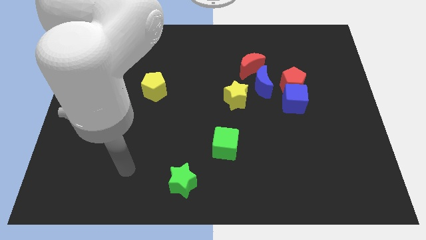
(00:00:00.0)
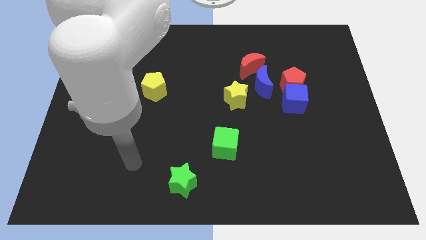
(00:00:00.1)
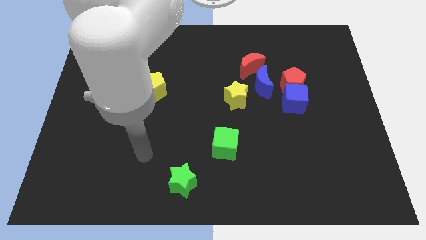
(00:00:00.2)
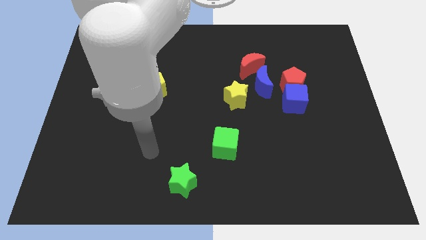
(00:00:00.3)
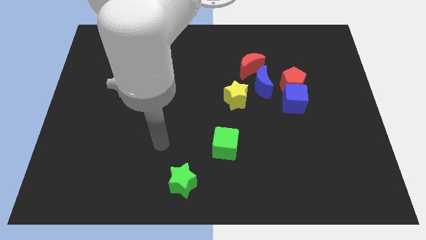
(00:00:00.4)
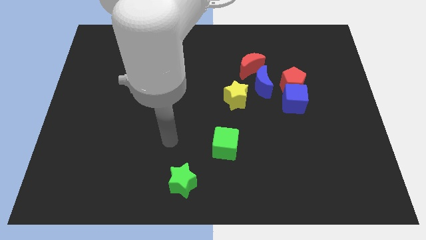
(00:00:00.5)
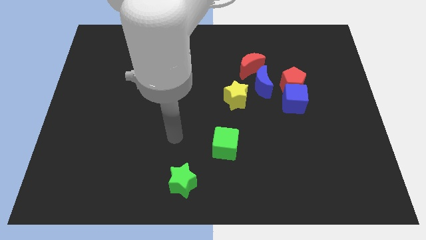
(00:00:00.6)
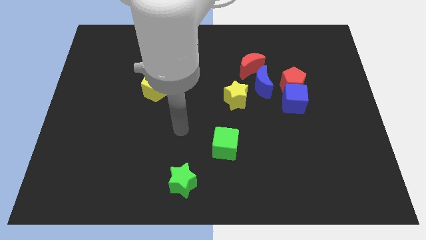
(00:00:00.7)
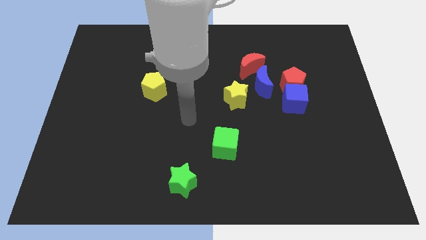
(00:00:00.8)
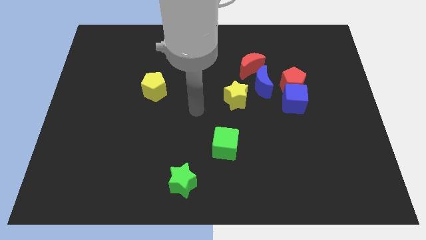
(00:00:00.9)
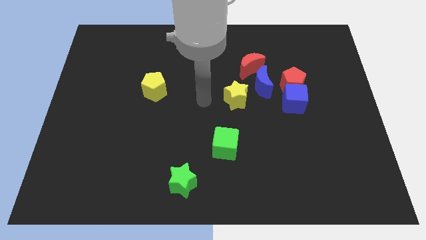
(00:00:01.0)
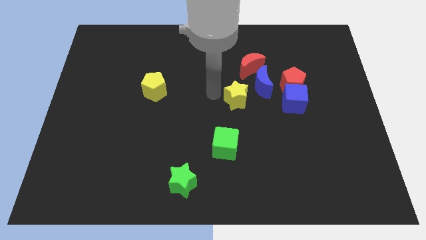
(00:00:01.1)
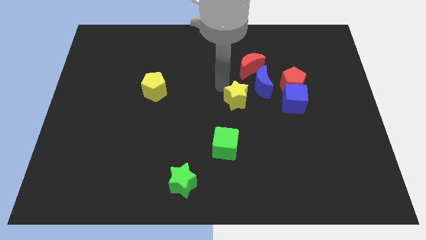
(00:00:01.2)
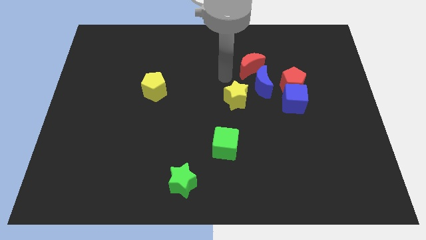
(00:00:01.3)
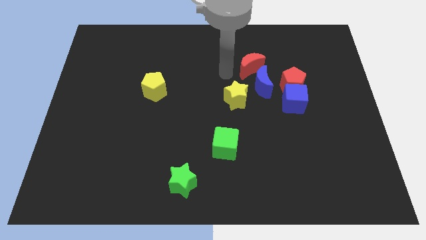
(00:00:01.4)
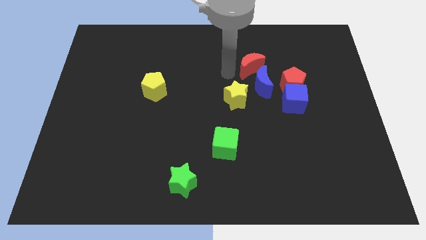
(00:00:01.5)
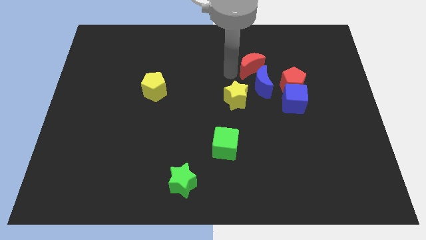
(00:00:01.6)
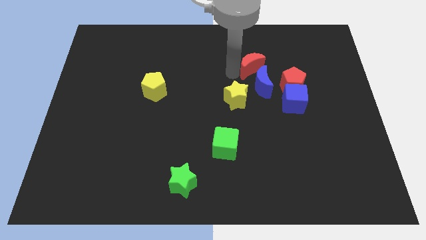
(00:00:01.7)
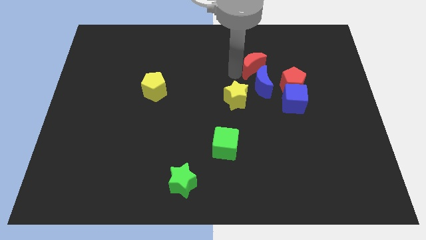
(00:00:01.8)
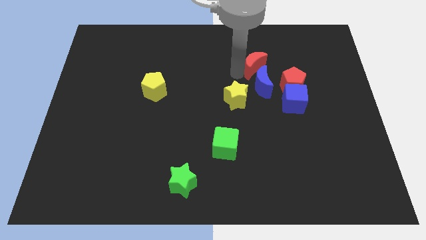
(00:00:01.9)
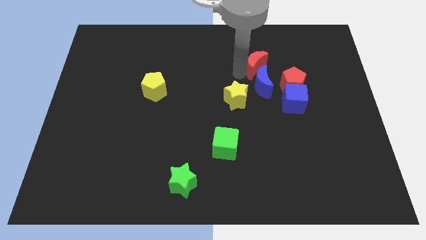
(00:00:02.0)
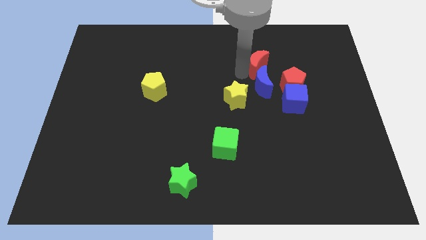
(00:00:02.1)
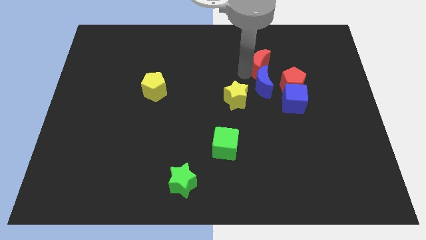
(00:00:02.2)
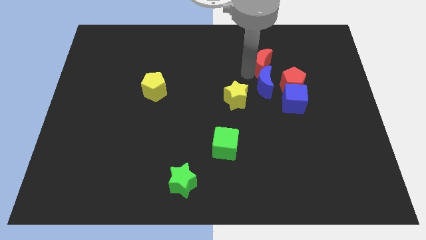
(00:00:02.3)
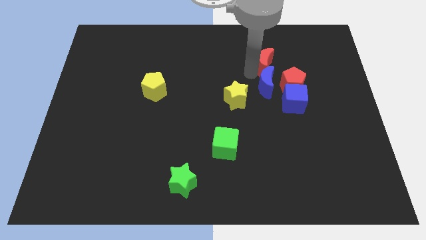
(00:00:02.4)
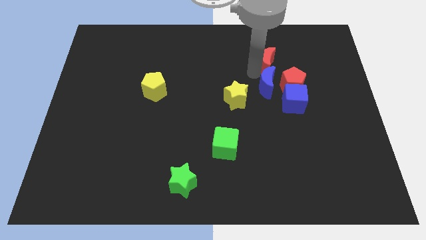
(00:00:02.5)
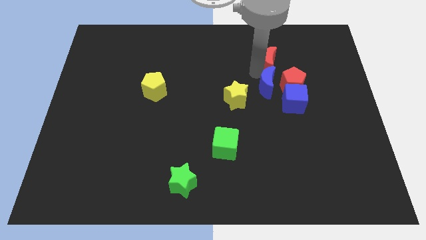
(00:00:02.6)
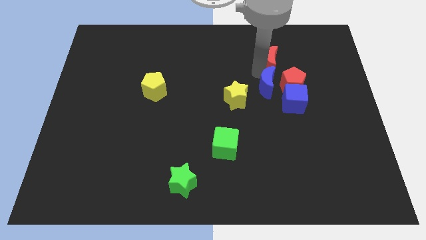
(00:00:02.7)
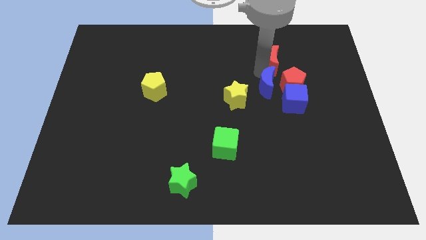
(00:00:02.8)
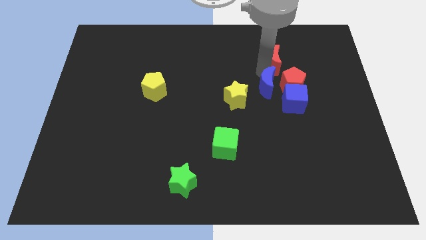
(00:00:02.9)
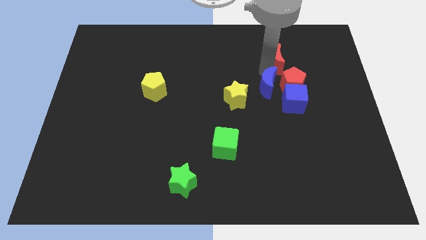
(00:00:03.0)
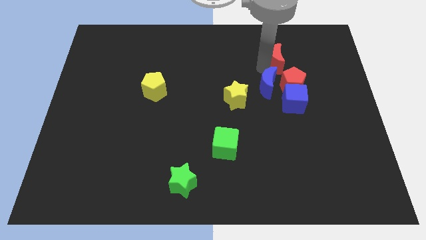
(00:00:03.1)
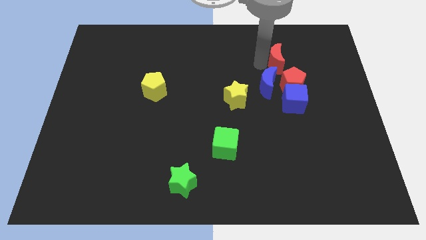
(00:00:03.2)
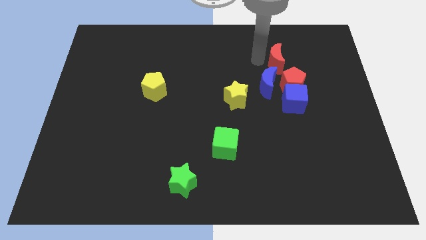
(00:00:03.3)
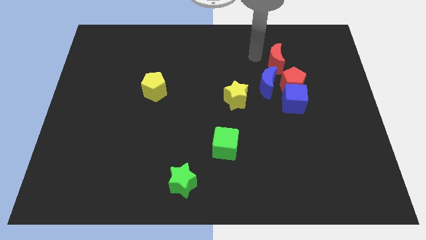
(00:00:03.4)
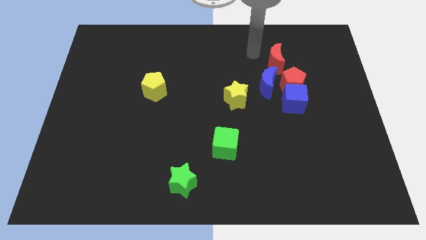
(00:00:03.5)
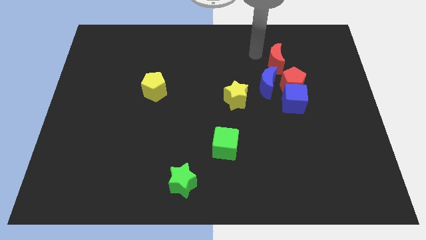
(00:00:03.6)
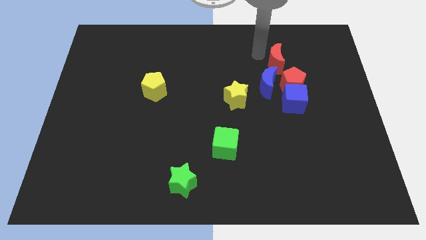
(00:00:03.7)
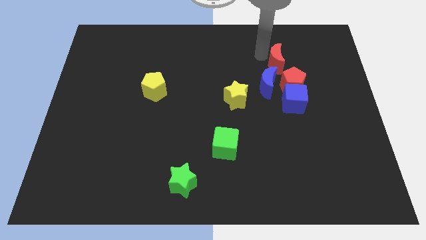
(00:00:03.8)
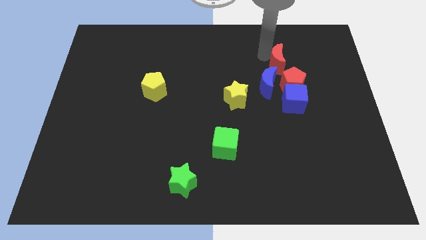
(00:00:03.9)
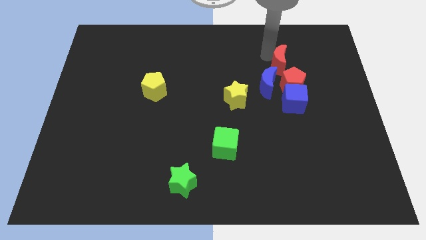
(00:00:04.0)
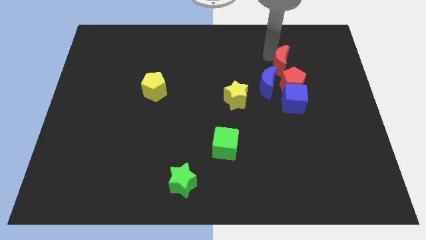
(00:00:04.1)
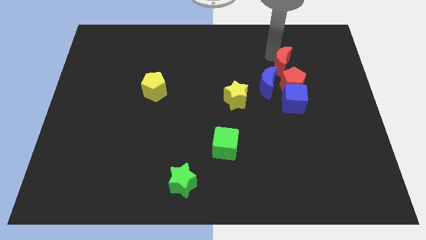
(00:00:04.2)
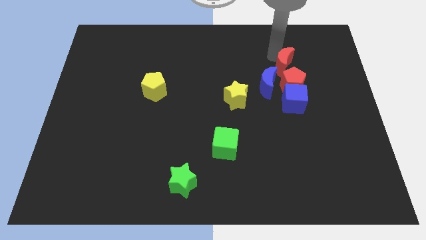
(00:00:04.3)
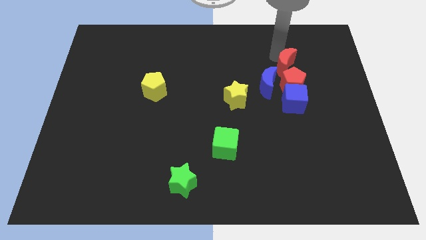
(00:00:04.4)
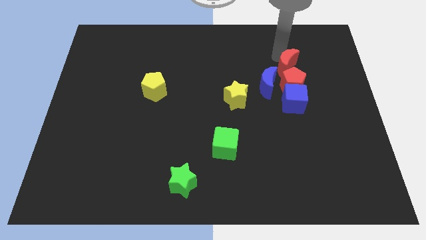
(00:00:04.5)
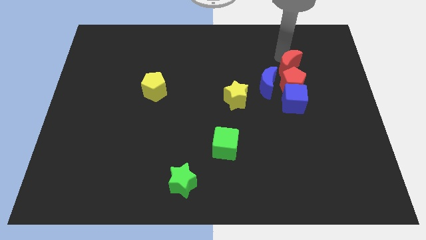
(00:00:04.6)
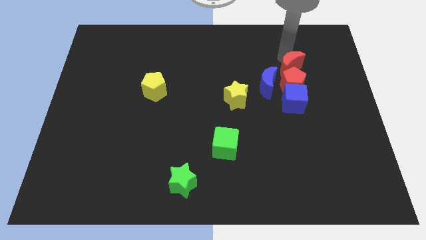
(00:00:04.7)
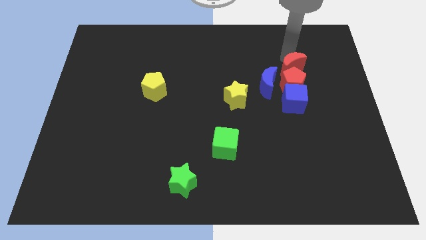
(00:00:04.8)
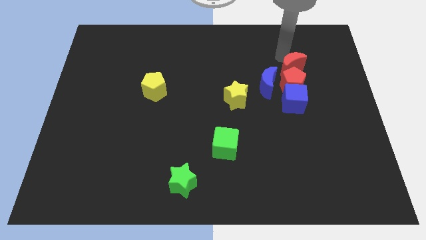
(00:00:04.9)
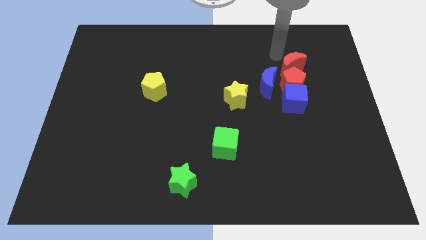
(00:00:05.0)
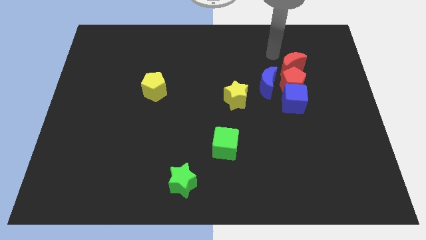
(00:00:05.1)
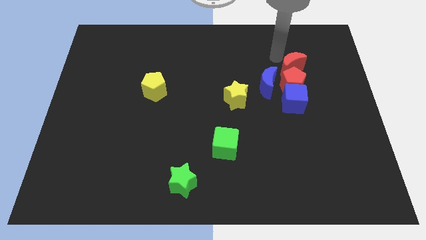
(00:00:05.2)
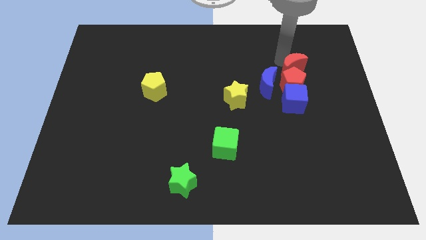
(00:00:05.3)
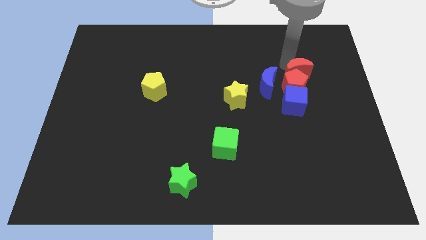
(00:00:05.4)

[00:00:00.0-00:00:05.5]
slide the red moon down and then to the right a little bit

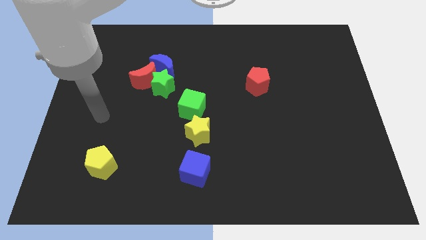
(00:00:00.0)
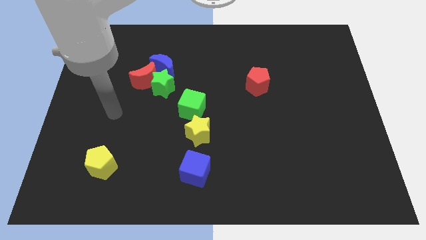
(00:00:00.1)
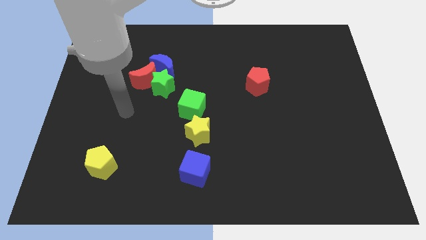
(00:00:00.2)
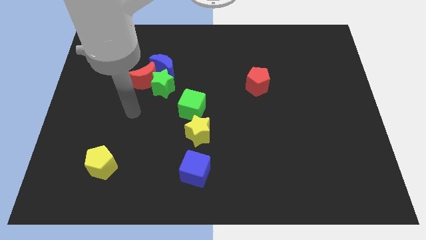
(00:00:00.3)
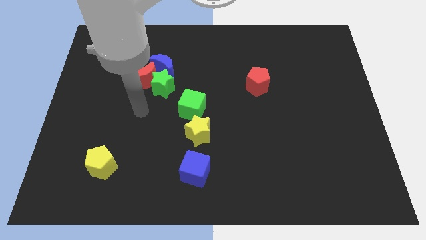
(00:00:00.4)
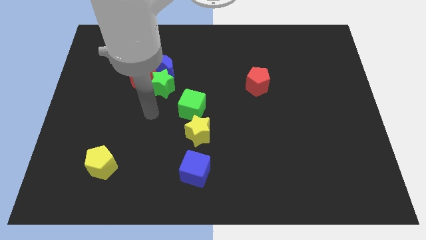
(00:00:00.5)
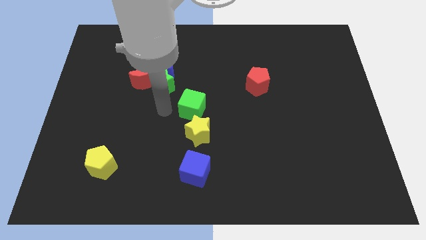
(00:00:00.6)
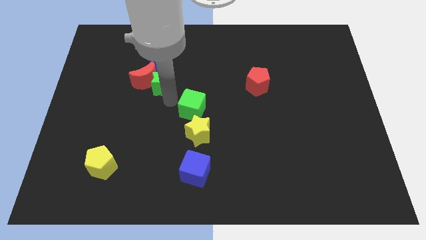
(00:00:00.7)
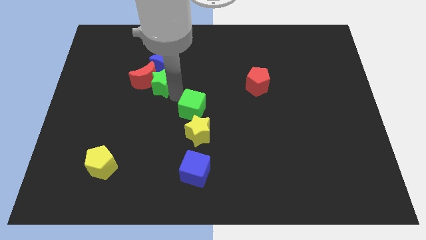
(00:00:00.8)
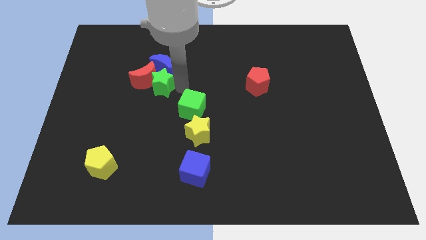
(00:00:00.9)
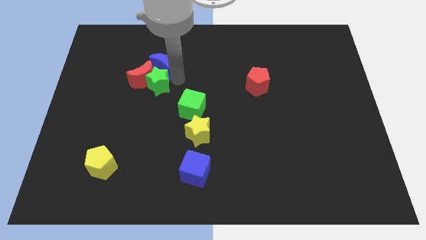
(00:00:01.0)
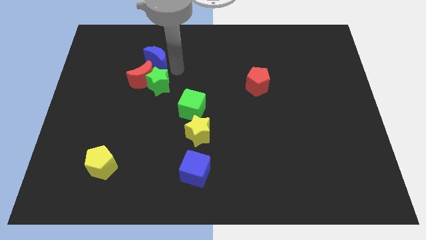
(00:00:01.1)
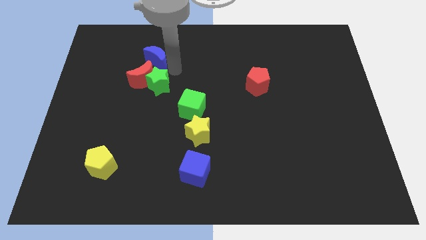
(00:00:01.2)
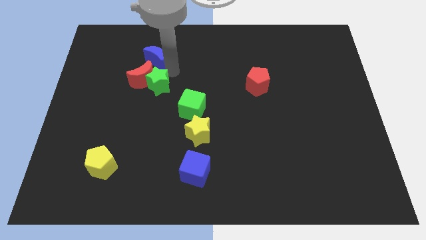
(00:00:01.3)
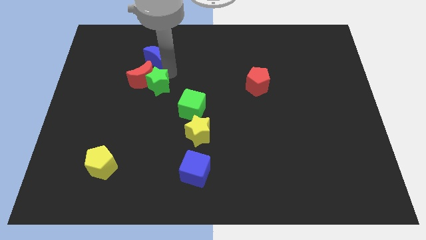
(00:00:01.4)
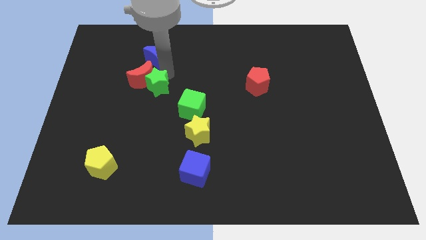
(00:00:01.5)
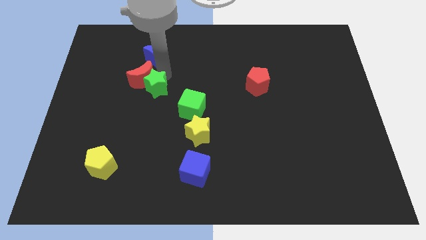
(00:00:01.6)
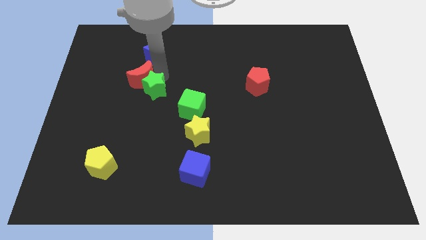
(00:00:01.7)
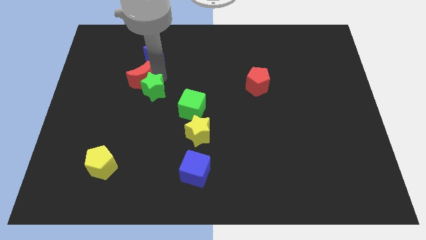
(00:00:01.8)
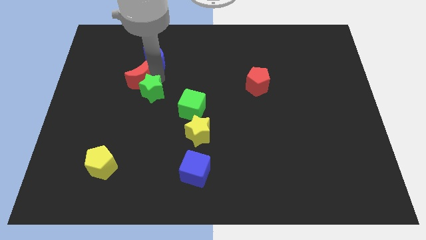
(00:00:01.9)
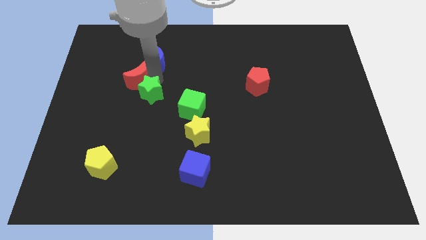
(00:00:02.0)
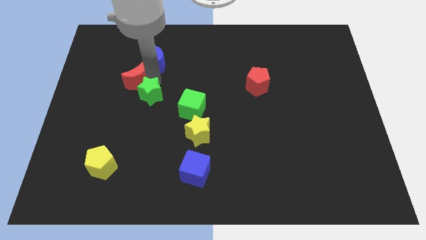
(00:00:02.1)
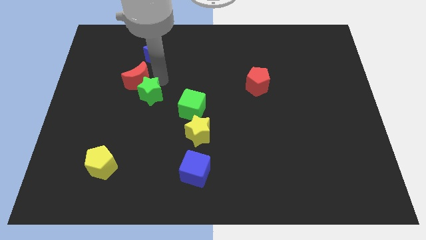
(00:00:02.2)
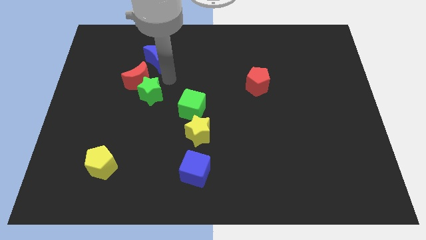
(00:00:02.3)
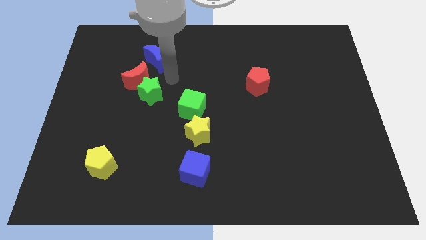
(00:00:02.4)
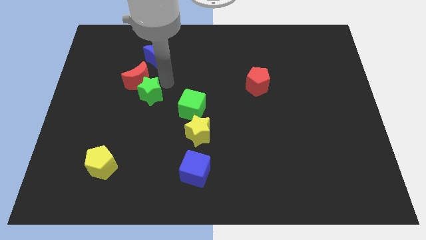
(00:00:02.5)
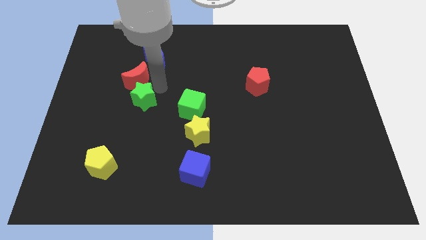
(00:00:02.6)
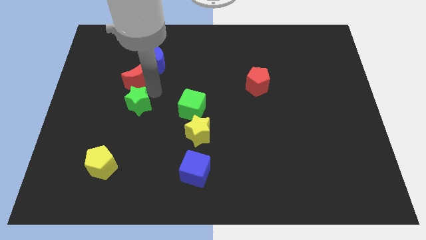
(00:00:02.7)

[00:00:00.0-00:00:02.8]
move the green star somewhat downwards and left
